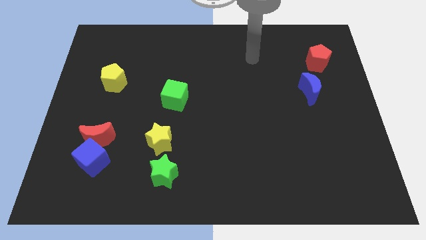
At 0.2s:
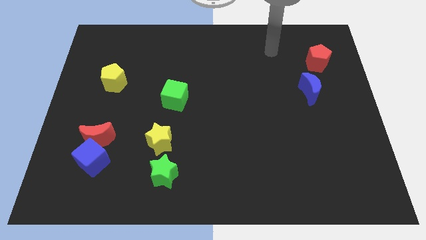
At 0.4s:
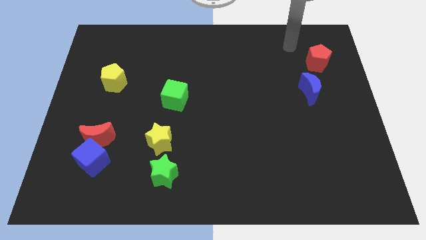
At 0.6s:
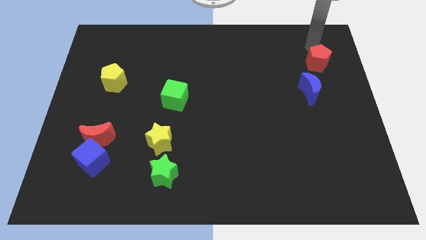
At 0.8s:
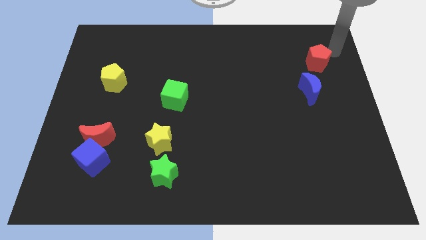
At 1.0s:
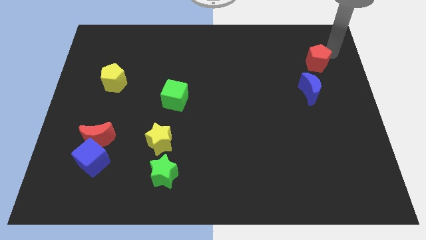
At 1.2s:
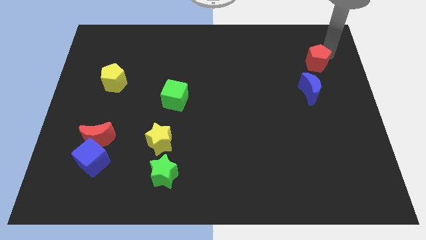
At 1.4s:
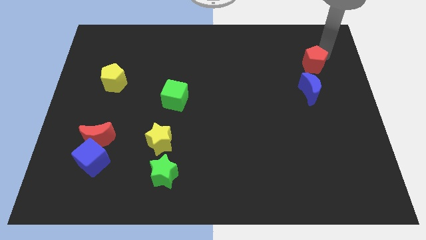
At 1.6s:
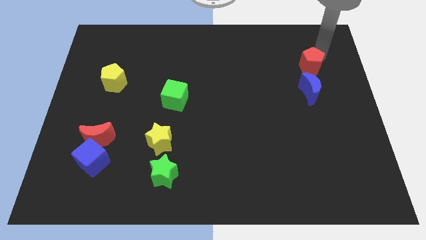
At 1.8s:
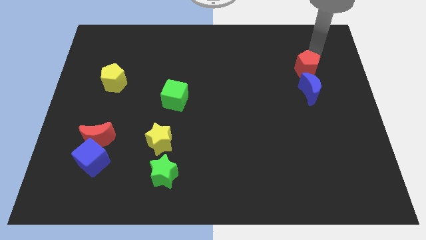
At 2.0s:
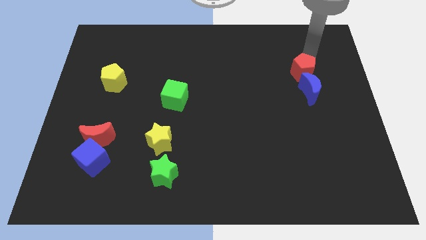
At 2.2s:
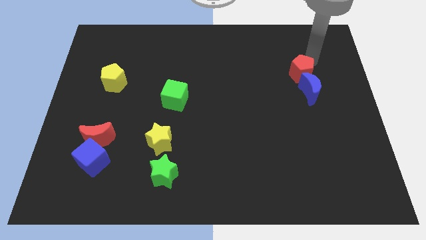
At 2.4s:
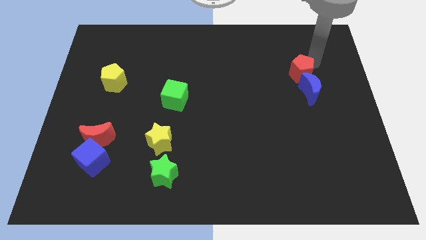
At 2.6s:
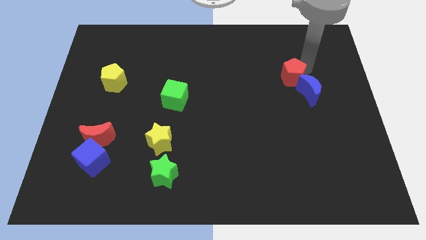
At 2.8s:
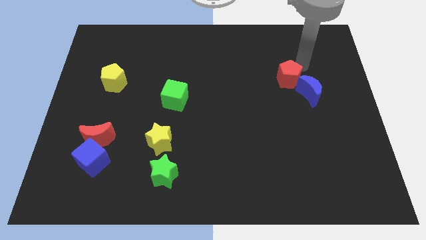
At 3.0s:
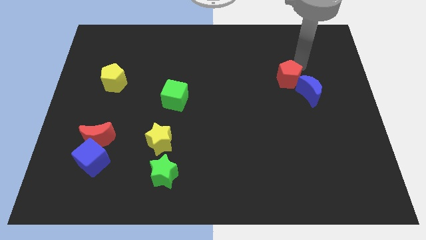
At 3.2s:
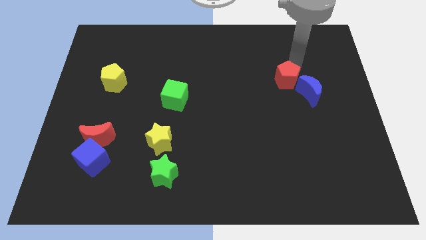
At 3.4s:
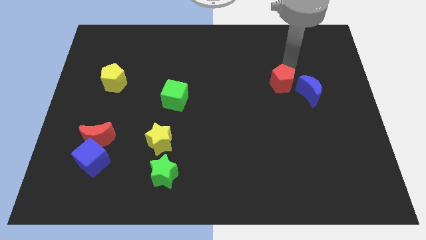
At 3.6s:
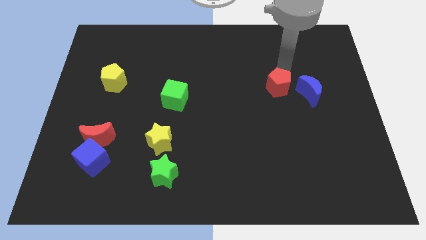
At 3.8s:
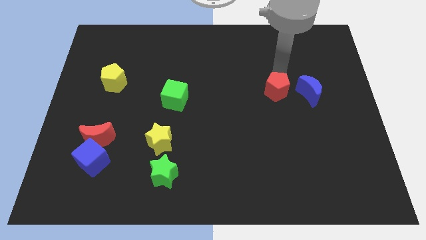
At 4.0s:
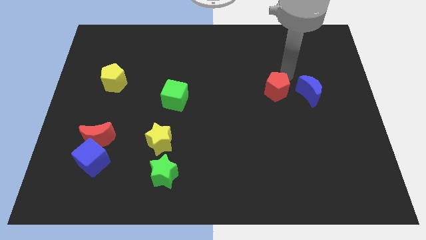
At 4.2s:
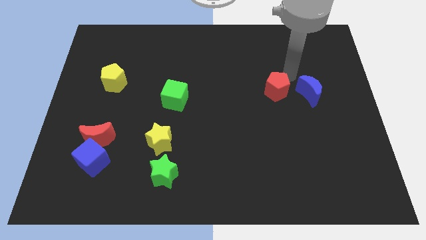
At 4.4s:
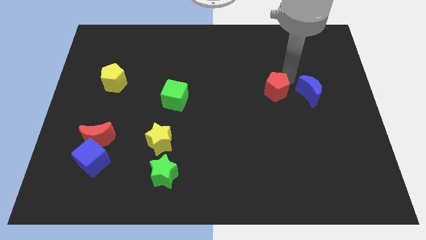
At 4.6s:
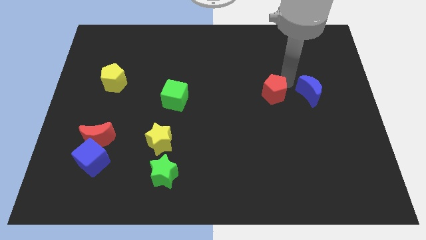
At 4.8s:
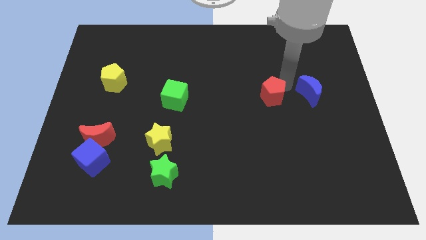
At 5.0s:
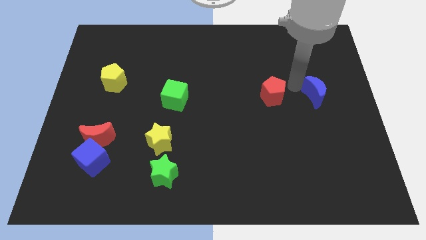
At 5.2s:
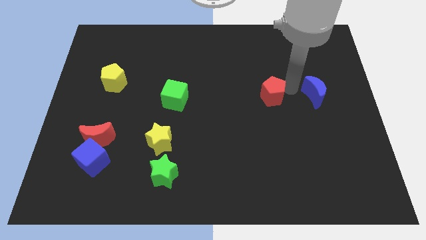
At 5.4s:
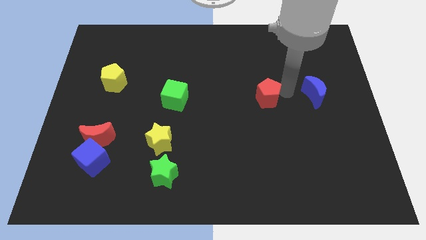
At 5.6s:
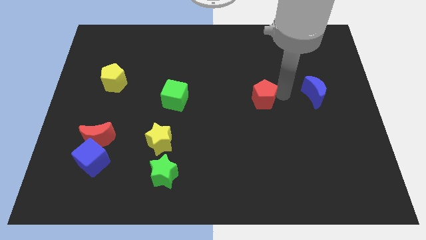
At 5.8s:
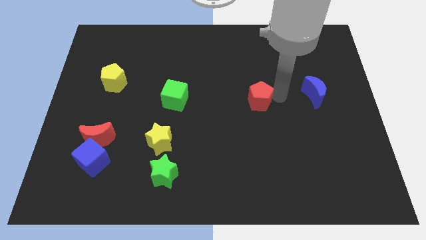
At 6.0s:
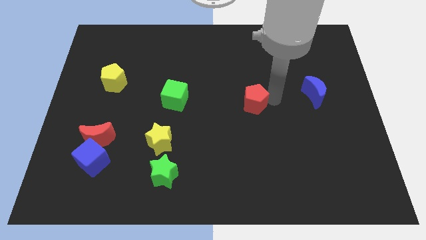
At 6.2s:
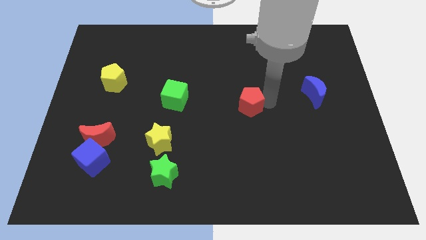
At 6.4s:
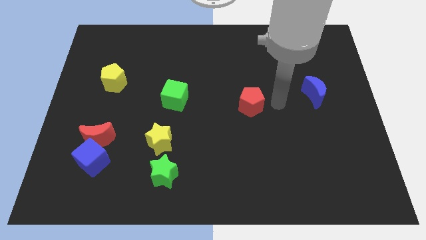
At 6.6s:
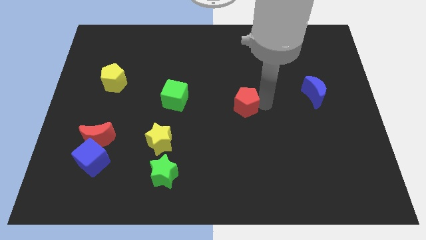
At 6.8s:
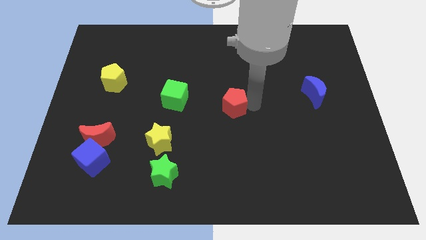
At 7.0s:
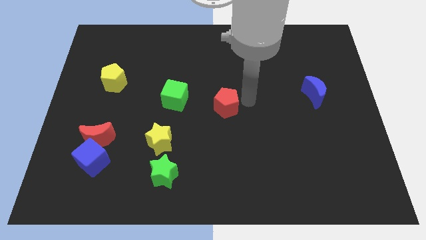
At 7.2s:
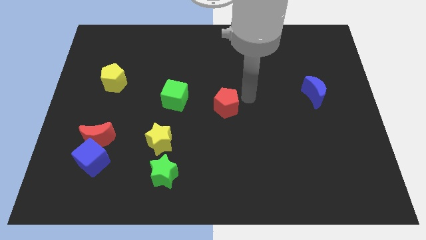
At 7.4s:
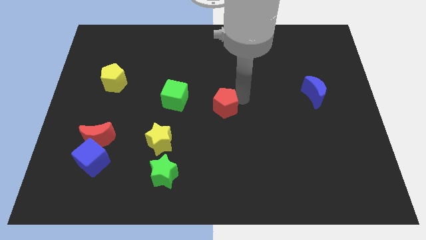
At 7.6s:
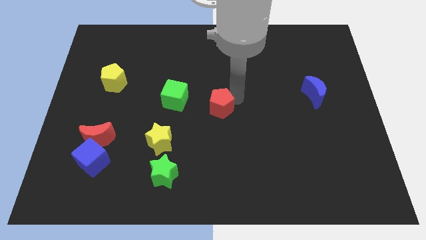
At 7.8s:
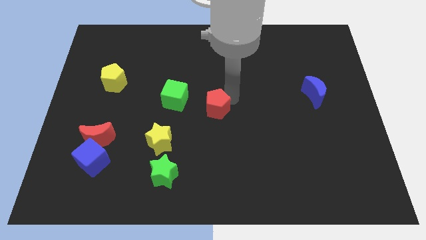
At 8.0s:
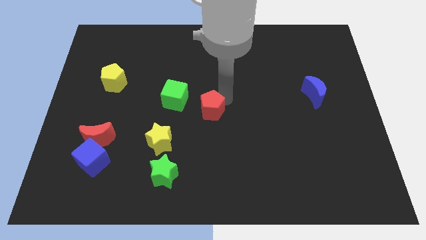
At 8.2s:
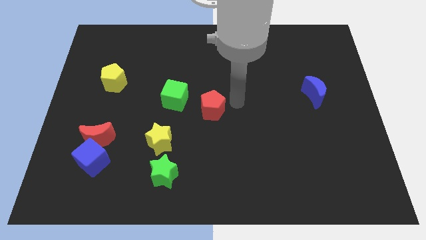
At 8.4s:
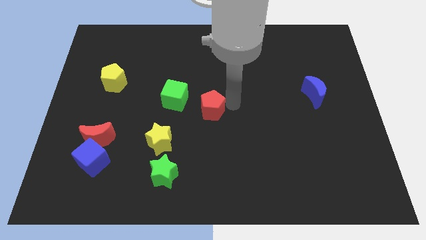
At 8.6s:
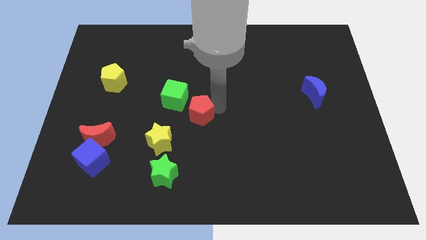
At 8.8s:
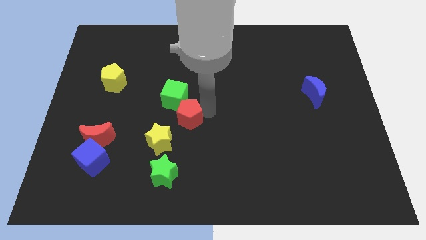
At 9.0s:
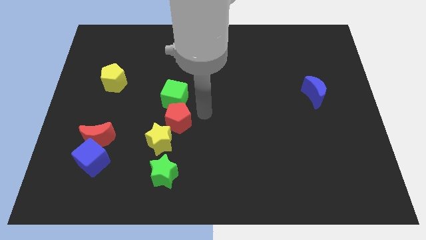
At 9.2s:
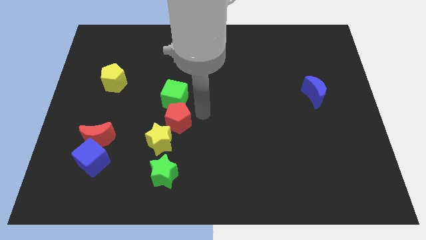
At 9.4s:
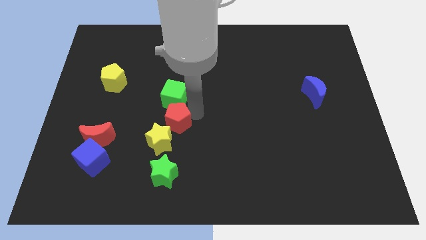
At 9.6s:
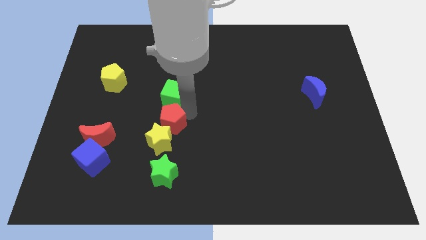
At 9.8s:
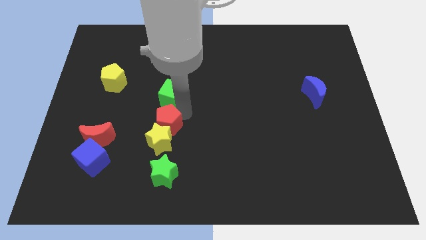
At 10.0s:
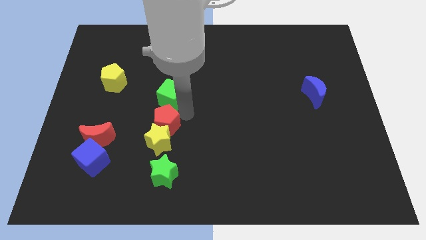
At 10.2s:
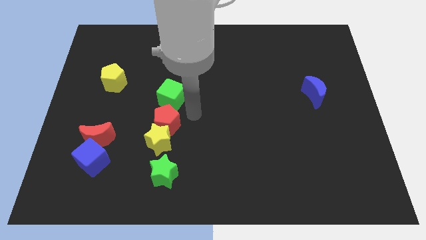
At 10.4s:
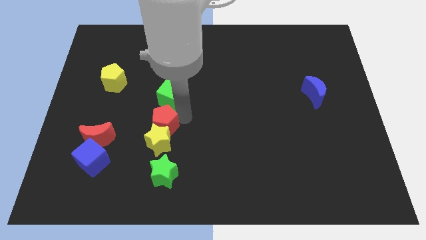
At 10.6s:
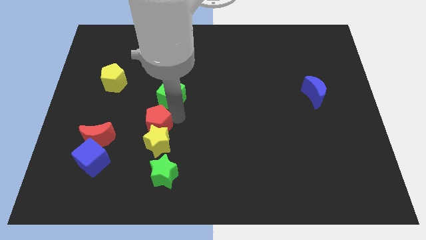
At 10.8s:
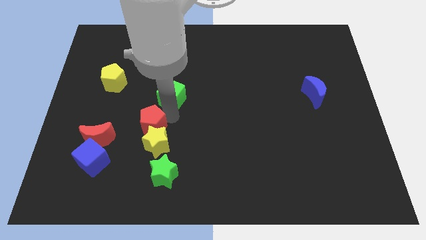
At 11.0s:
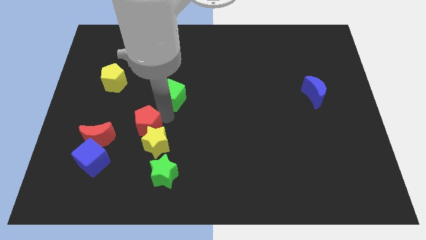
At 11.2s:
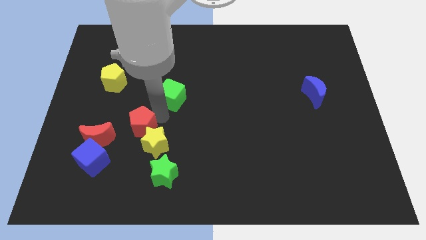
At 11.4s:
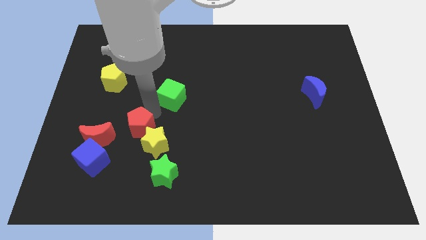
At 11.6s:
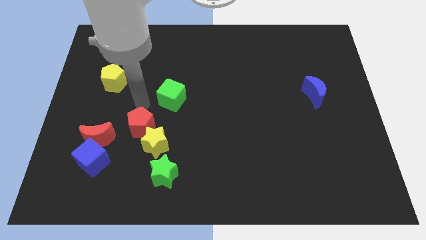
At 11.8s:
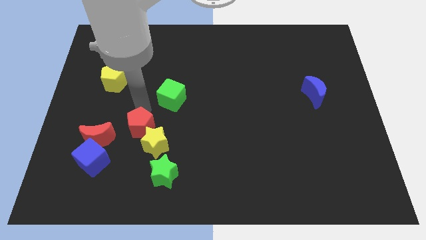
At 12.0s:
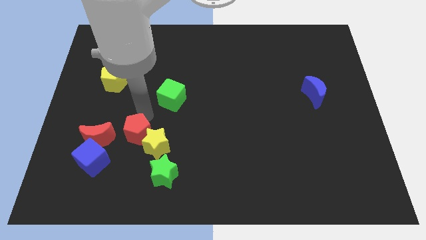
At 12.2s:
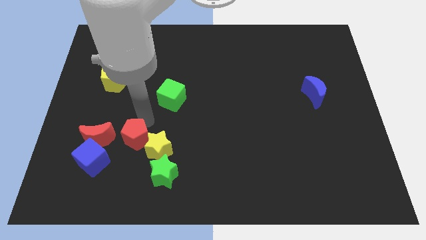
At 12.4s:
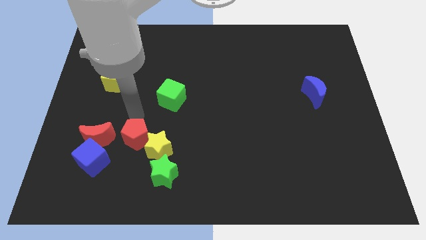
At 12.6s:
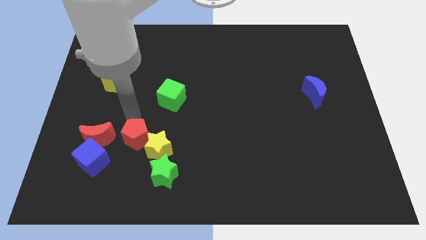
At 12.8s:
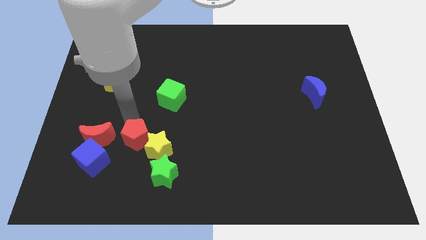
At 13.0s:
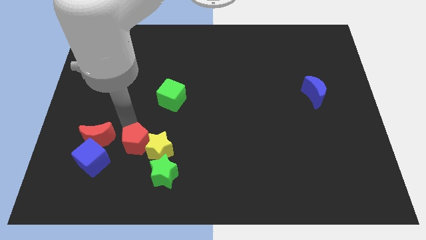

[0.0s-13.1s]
push the red pentagon just right of the blue cube

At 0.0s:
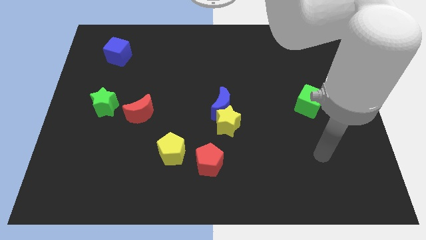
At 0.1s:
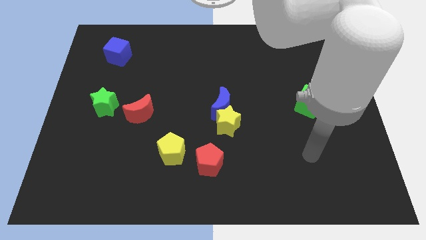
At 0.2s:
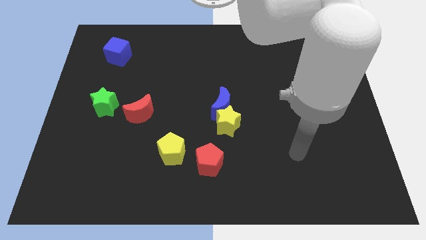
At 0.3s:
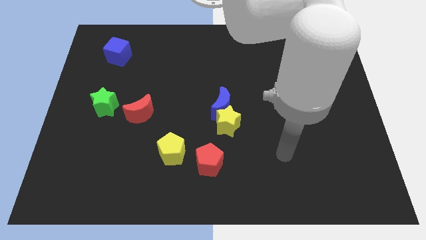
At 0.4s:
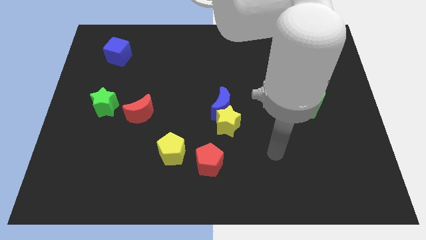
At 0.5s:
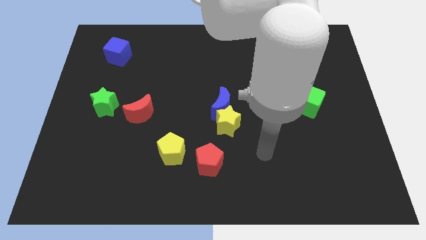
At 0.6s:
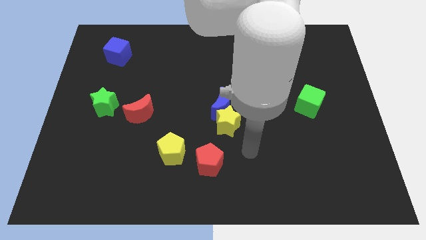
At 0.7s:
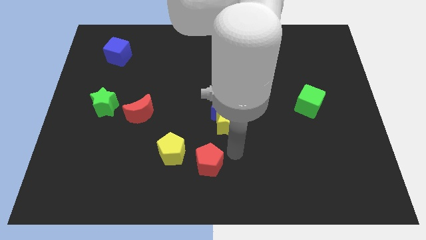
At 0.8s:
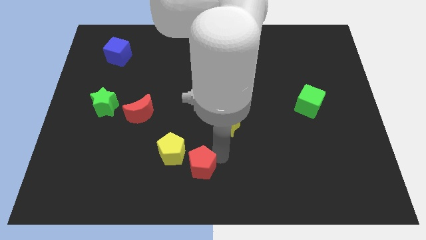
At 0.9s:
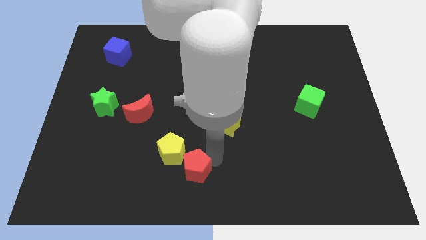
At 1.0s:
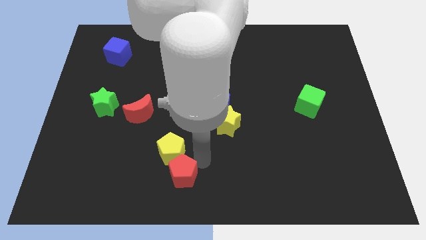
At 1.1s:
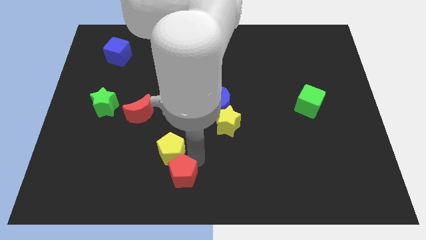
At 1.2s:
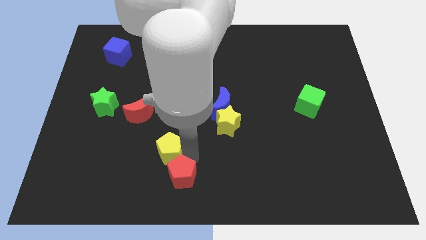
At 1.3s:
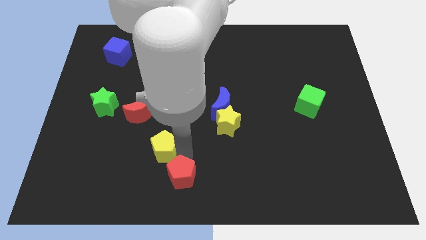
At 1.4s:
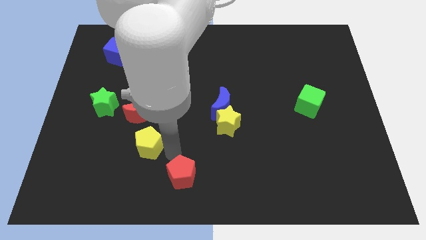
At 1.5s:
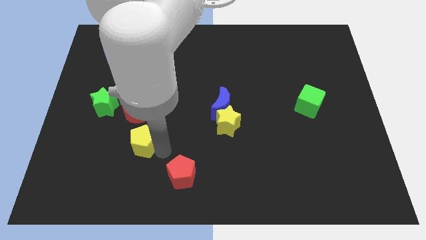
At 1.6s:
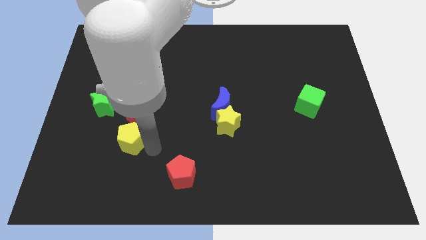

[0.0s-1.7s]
move the yellow pentagon to the bottom right of the green star
